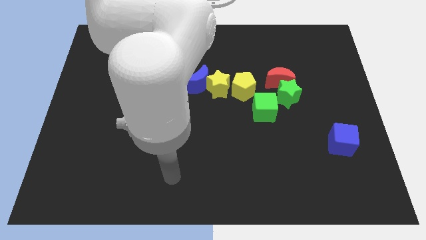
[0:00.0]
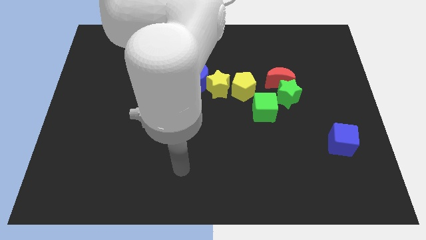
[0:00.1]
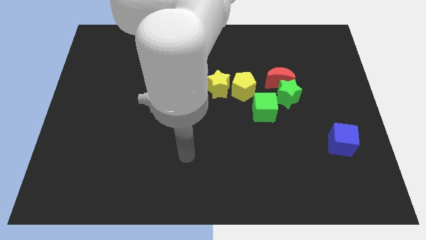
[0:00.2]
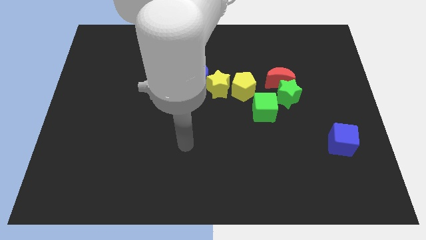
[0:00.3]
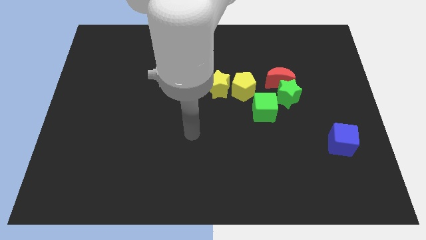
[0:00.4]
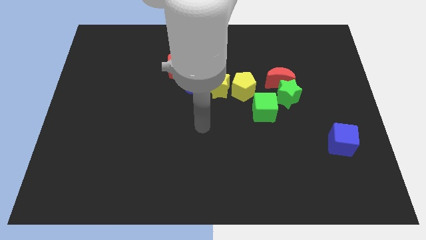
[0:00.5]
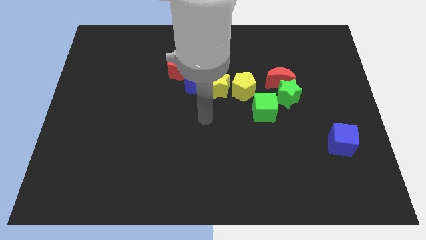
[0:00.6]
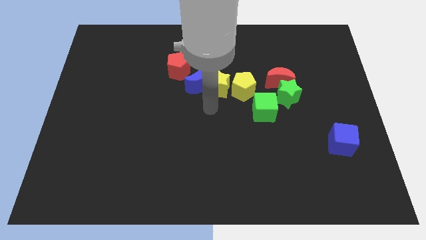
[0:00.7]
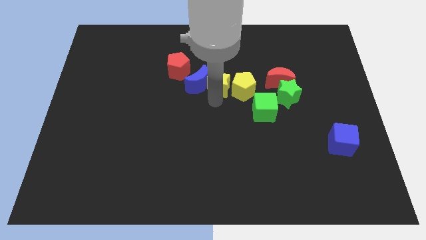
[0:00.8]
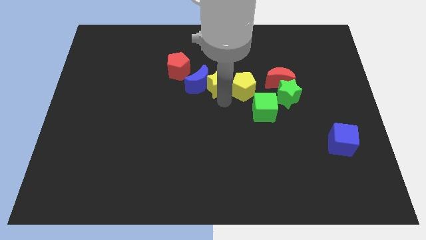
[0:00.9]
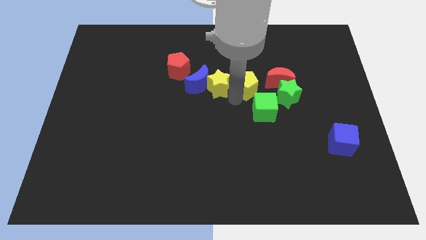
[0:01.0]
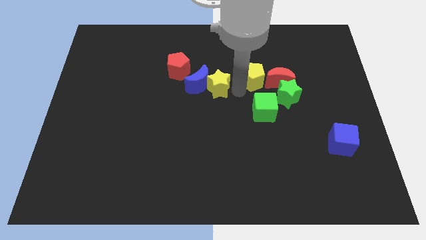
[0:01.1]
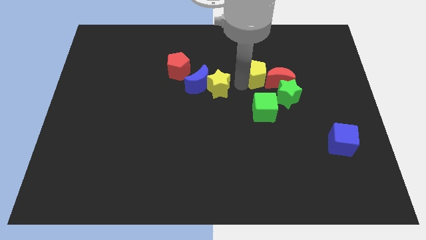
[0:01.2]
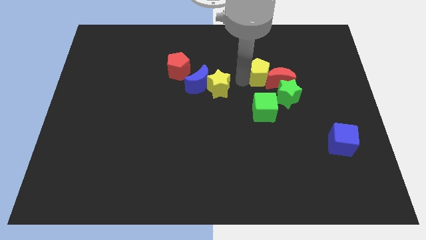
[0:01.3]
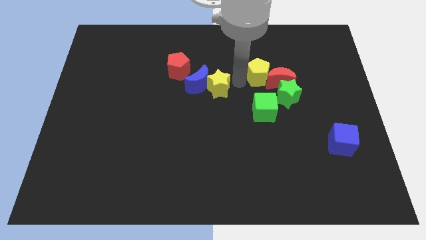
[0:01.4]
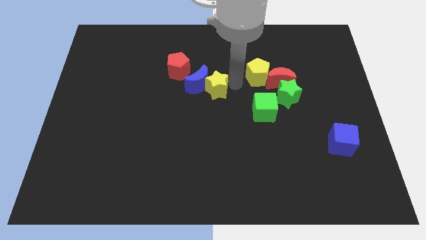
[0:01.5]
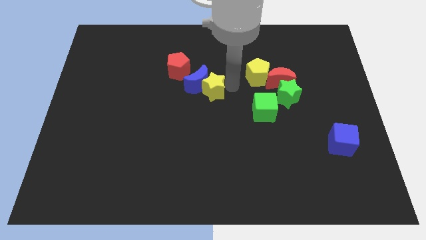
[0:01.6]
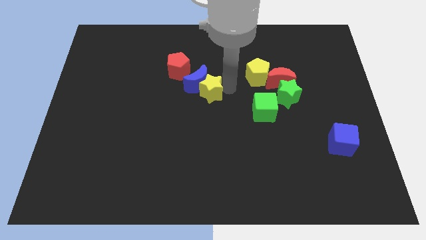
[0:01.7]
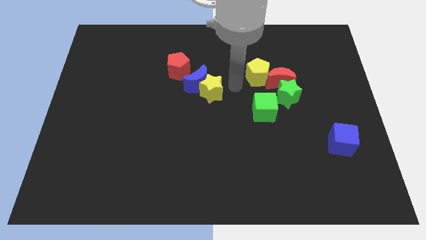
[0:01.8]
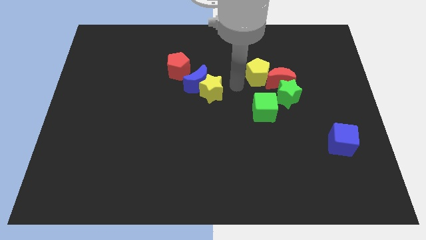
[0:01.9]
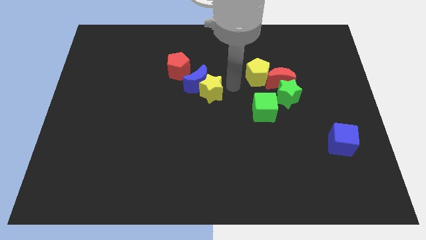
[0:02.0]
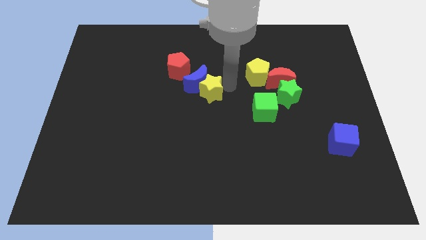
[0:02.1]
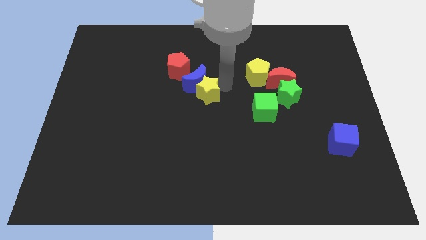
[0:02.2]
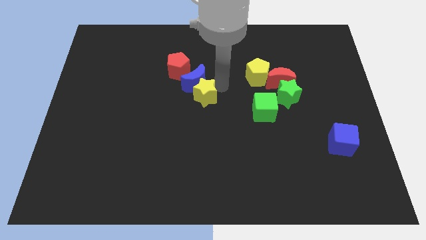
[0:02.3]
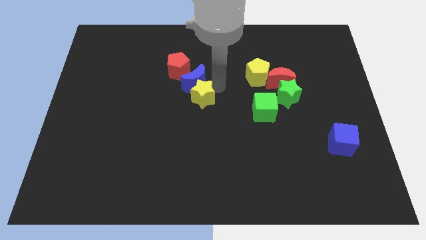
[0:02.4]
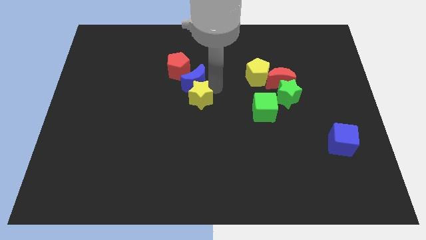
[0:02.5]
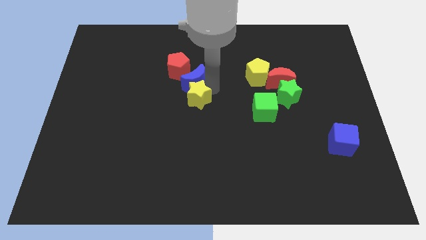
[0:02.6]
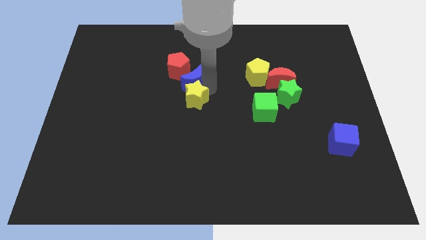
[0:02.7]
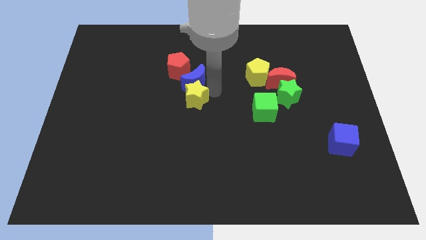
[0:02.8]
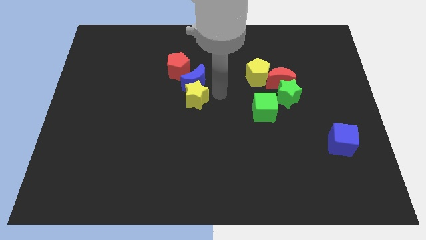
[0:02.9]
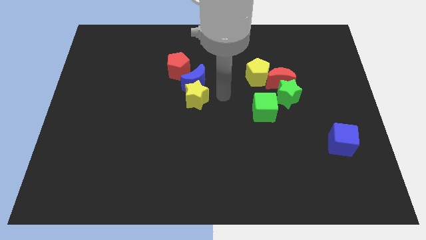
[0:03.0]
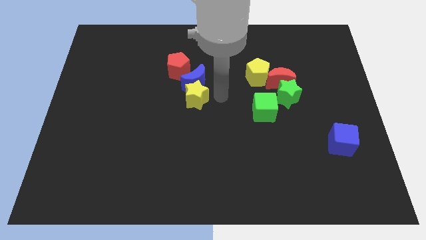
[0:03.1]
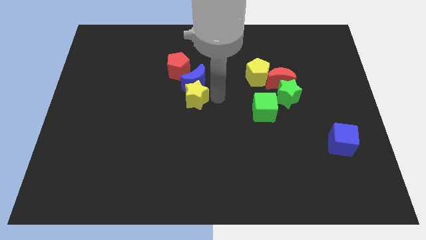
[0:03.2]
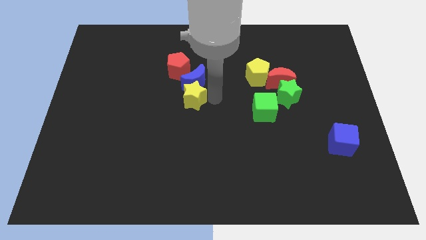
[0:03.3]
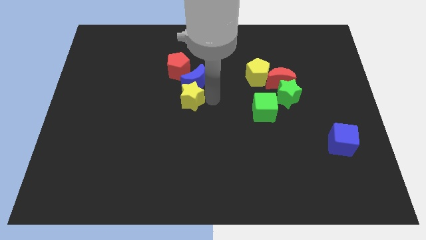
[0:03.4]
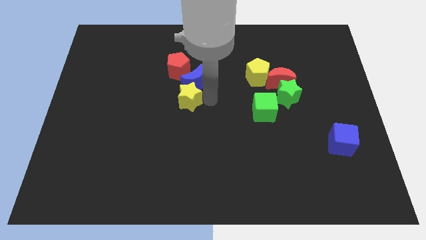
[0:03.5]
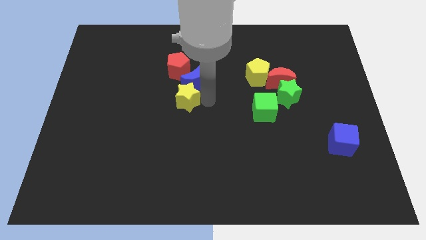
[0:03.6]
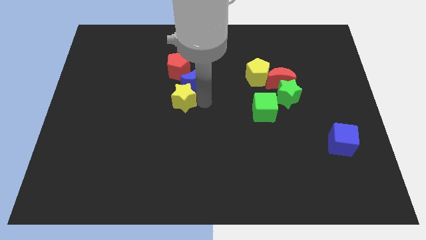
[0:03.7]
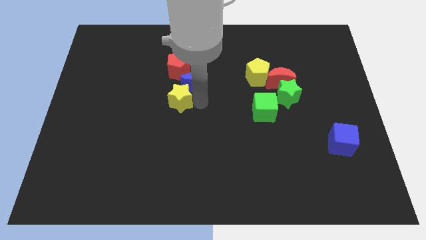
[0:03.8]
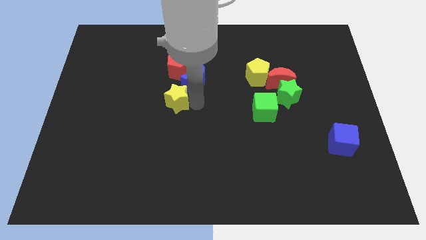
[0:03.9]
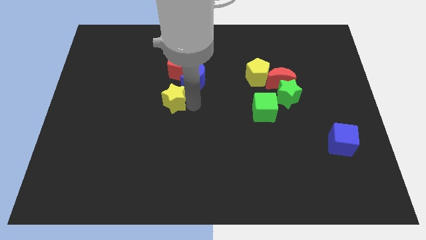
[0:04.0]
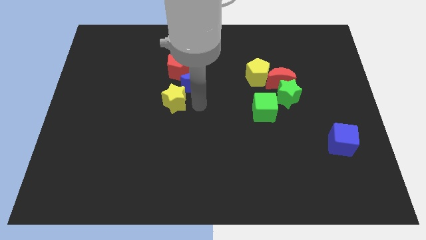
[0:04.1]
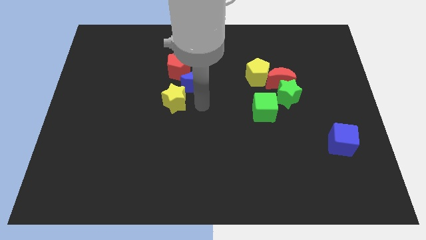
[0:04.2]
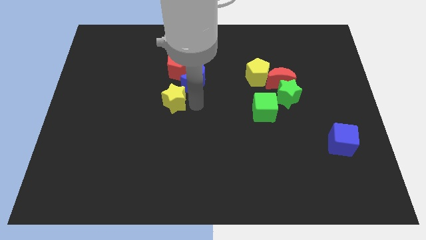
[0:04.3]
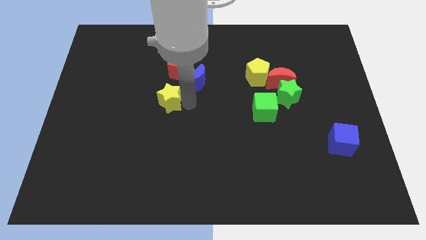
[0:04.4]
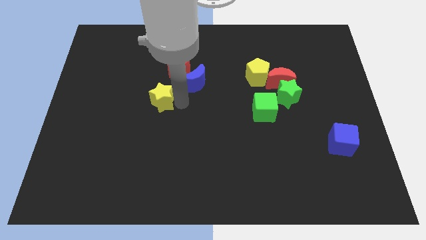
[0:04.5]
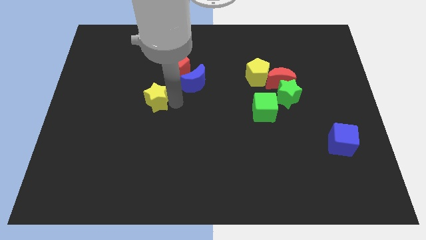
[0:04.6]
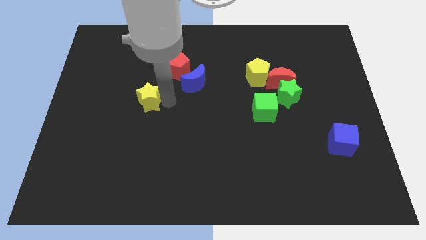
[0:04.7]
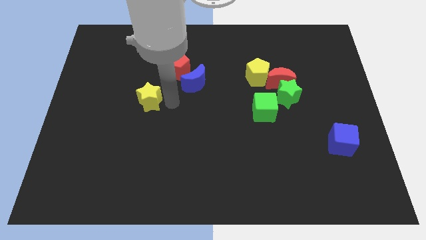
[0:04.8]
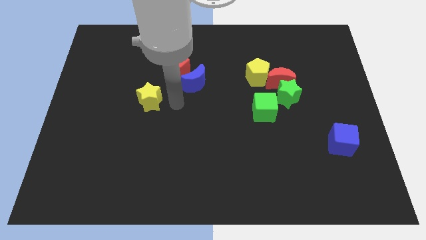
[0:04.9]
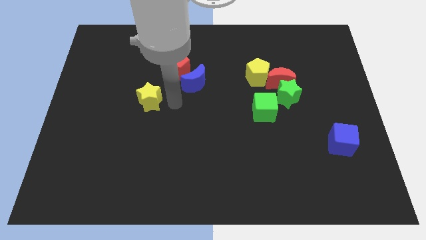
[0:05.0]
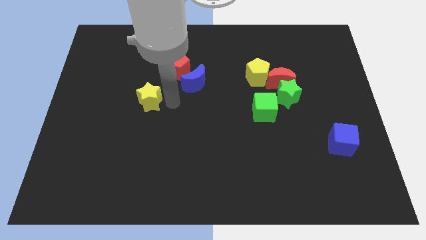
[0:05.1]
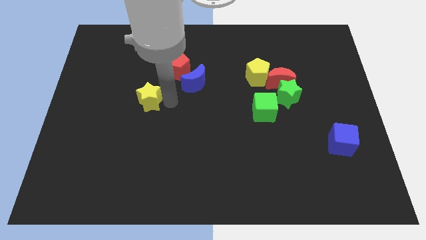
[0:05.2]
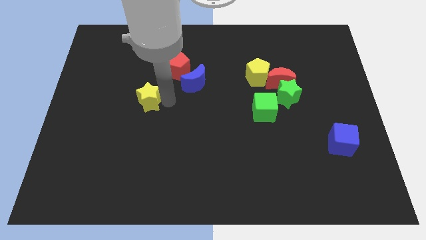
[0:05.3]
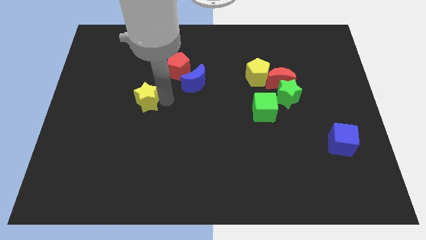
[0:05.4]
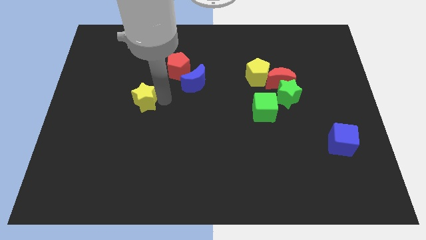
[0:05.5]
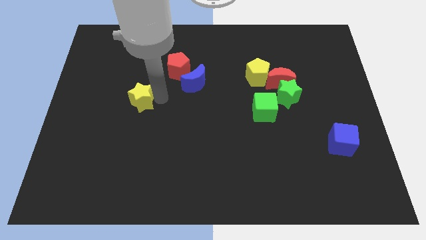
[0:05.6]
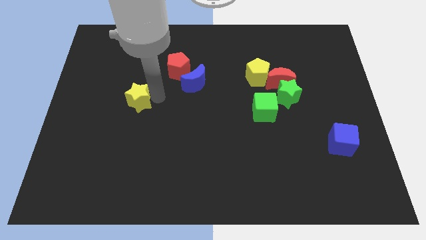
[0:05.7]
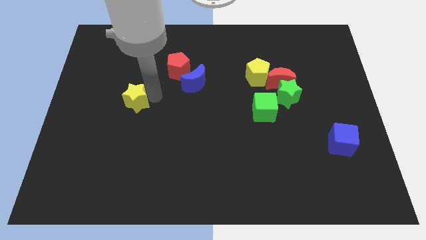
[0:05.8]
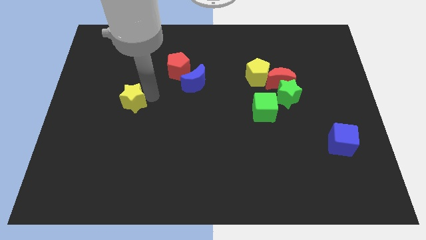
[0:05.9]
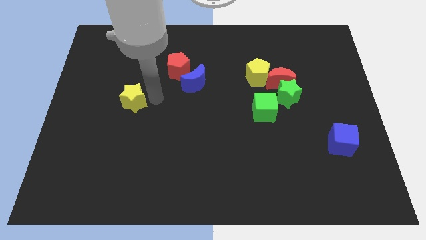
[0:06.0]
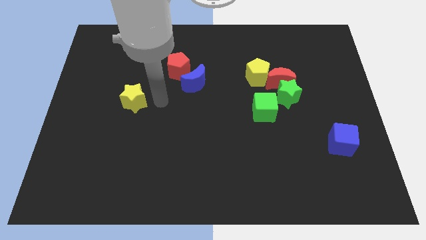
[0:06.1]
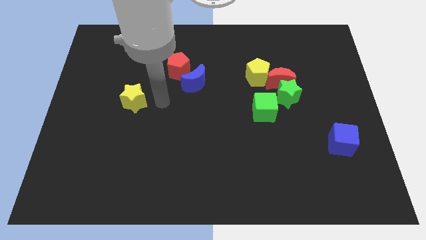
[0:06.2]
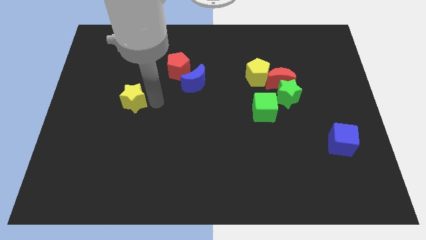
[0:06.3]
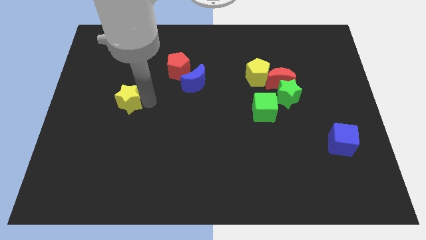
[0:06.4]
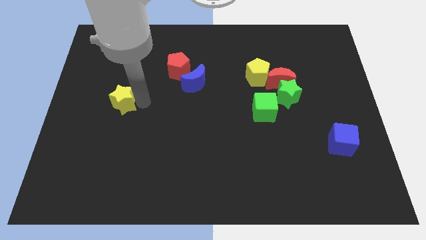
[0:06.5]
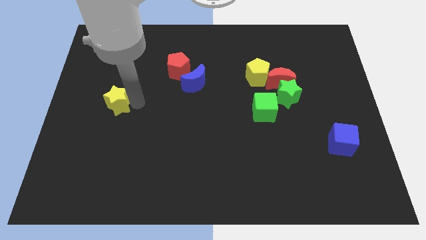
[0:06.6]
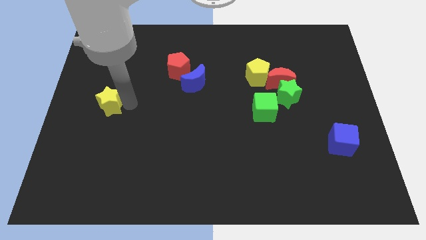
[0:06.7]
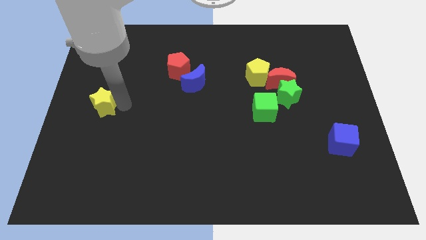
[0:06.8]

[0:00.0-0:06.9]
push the yellow star to the center left
